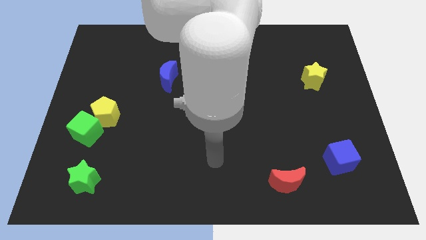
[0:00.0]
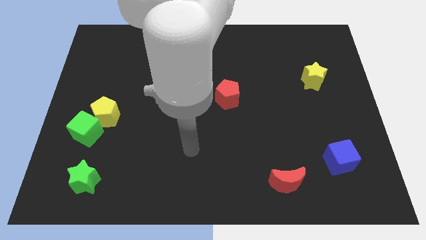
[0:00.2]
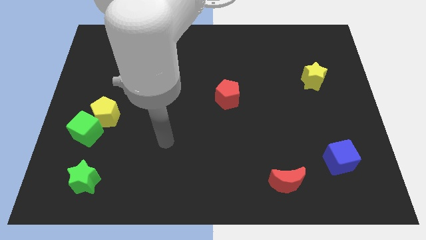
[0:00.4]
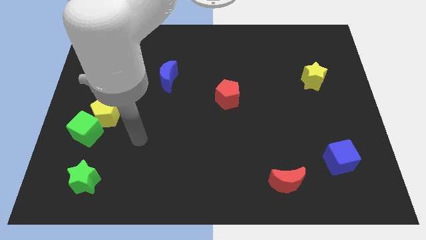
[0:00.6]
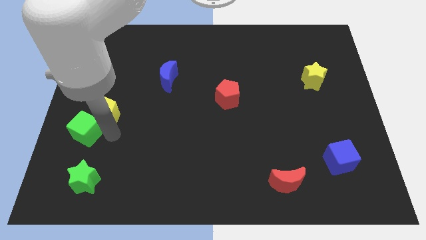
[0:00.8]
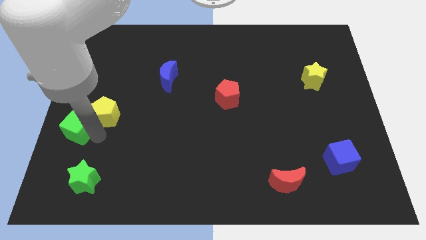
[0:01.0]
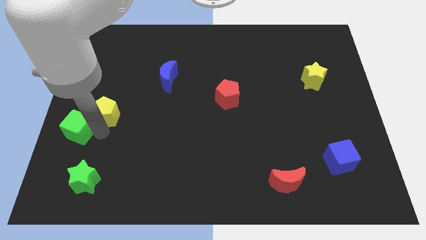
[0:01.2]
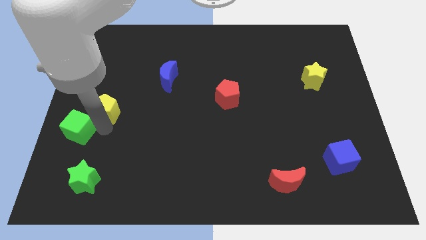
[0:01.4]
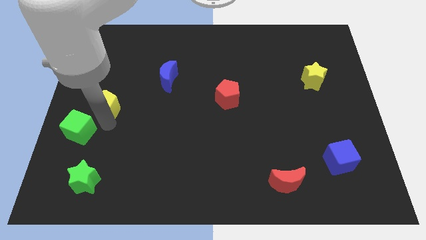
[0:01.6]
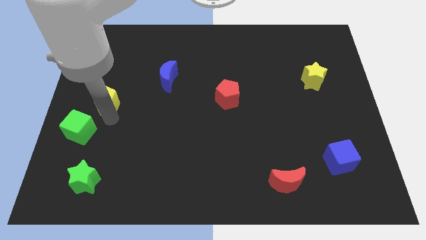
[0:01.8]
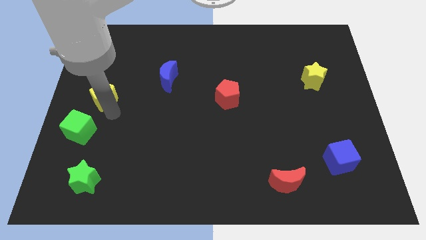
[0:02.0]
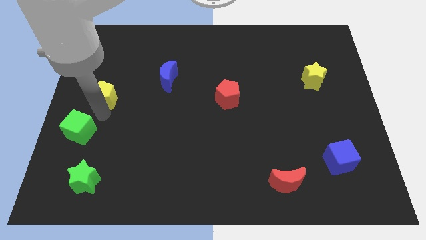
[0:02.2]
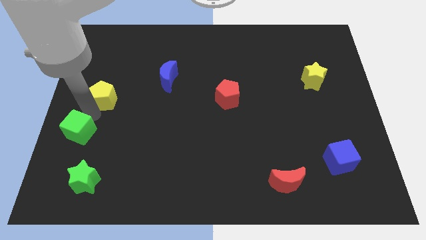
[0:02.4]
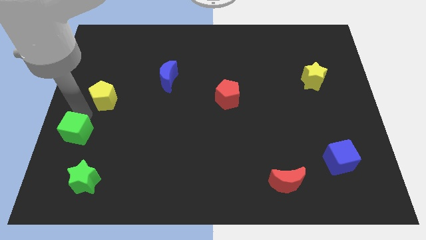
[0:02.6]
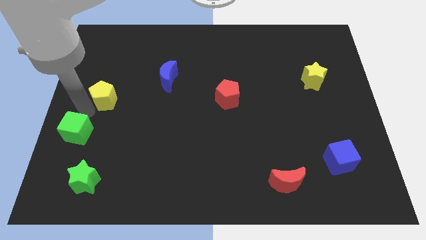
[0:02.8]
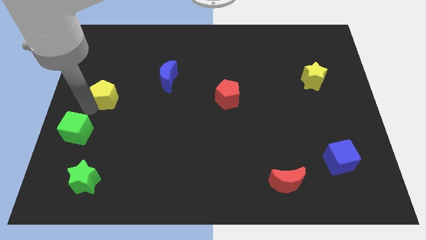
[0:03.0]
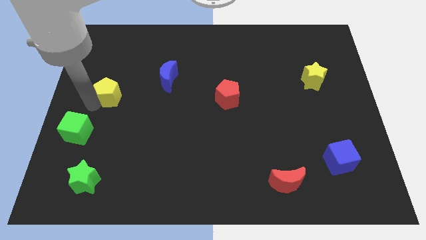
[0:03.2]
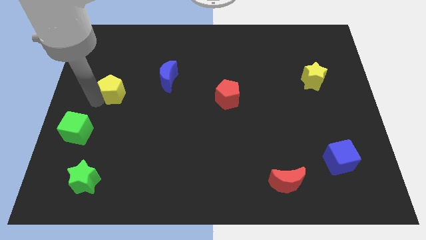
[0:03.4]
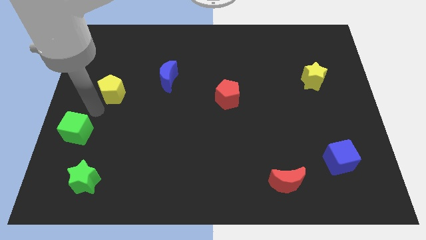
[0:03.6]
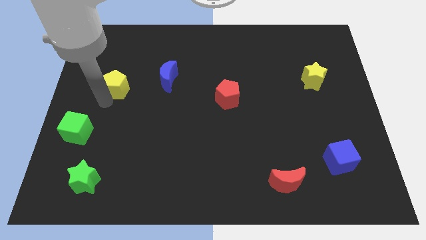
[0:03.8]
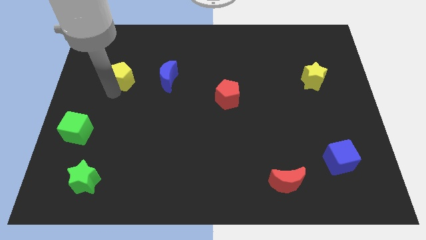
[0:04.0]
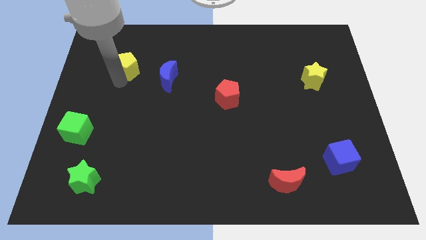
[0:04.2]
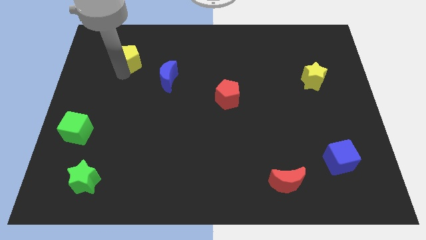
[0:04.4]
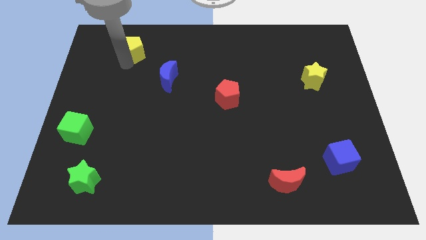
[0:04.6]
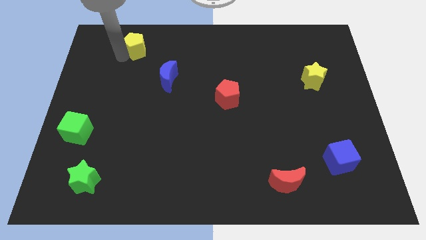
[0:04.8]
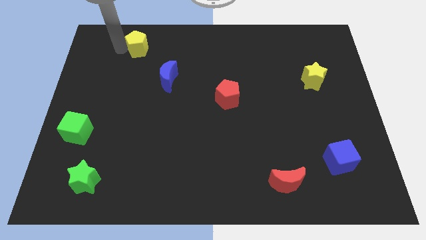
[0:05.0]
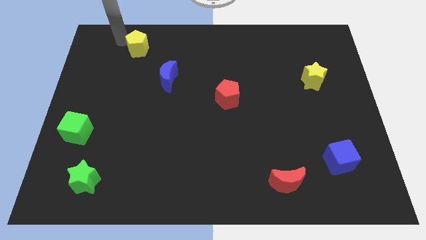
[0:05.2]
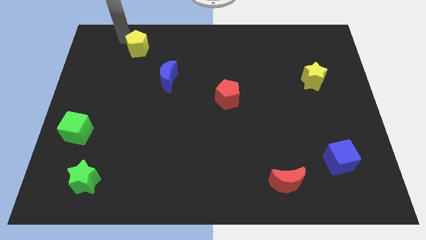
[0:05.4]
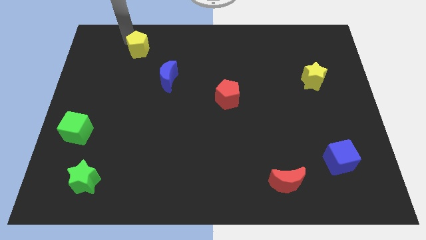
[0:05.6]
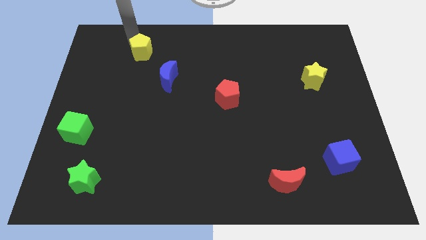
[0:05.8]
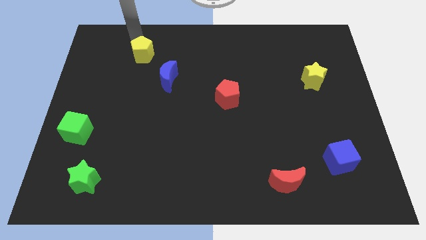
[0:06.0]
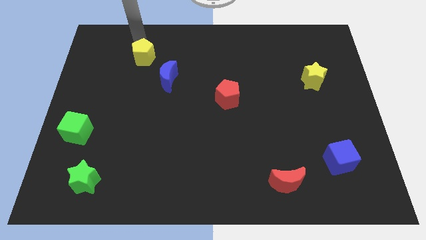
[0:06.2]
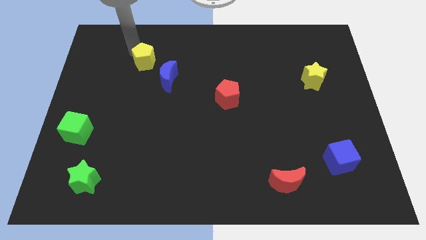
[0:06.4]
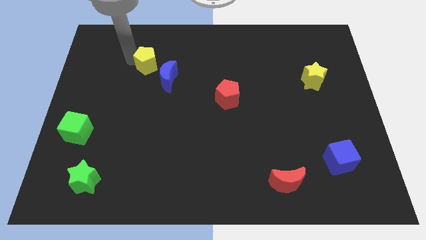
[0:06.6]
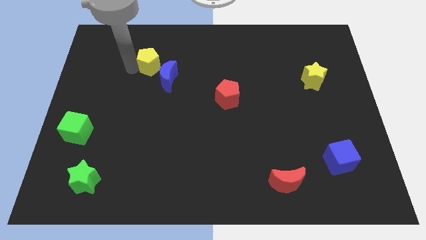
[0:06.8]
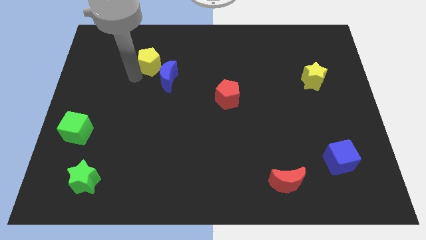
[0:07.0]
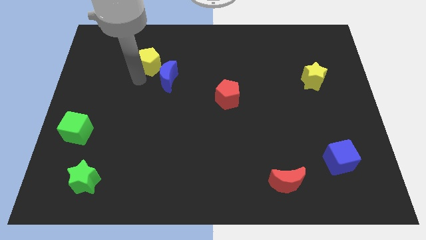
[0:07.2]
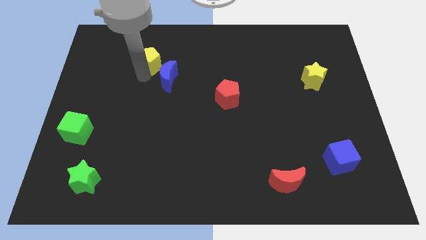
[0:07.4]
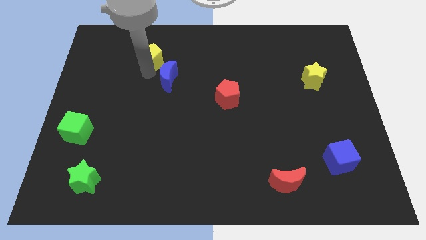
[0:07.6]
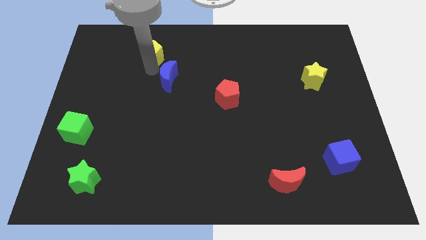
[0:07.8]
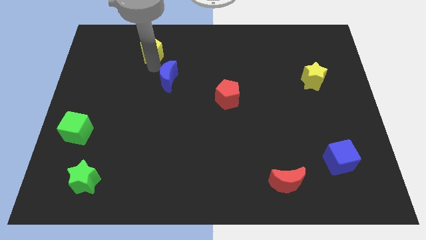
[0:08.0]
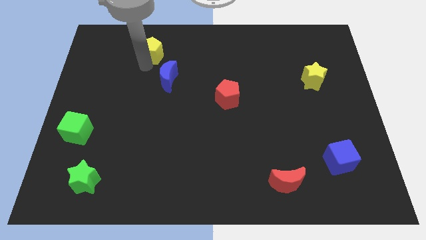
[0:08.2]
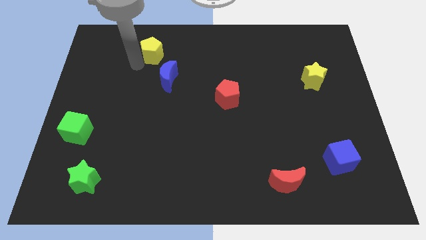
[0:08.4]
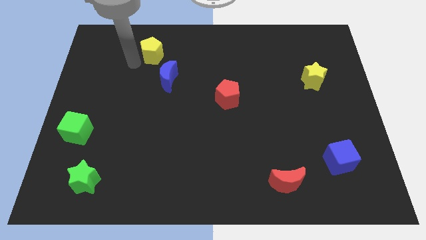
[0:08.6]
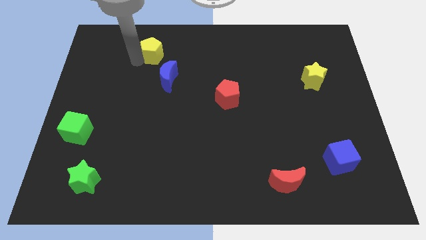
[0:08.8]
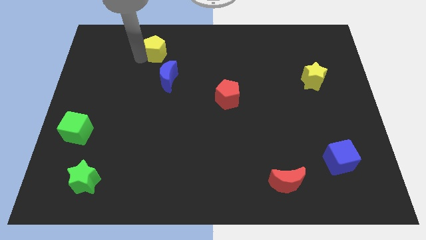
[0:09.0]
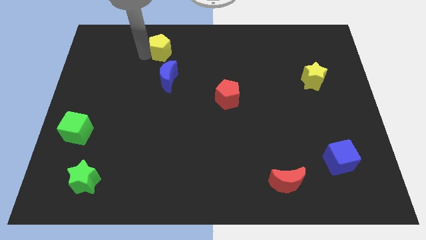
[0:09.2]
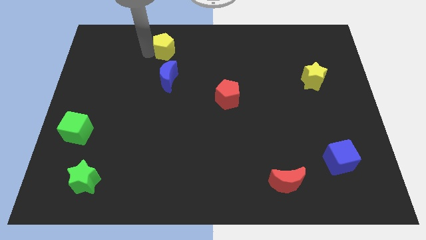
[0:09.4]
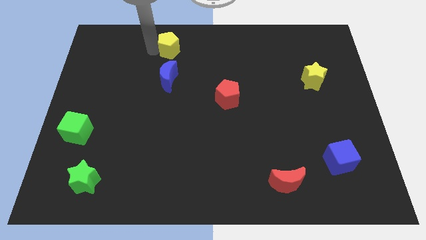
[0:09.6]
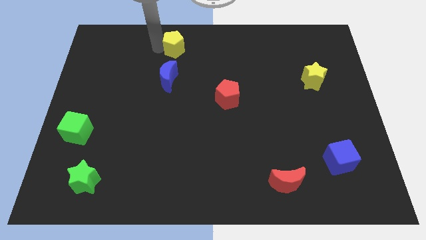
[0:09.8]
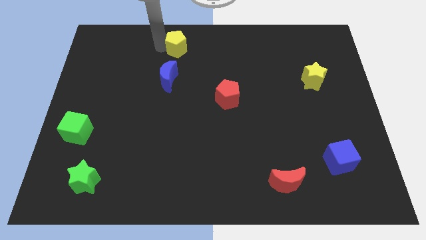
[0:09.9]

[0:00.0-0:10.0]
put the yellow pentagon to the top

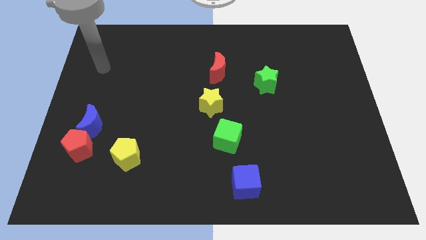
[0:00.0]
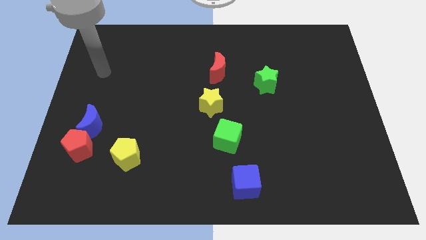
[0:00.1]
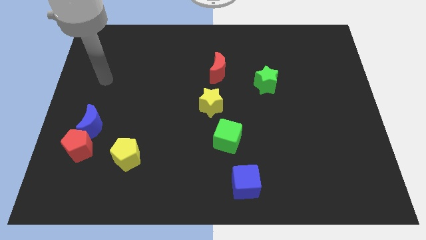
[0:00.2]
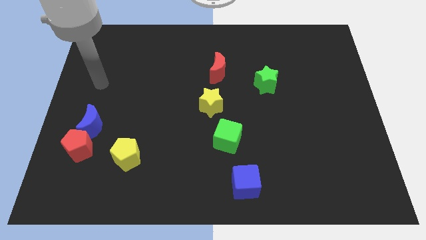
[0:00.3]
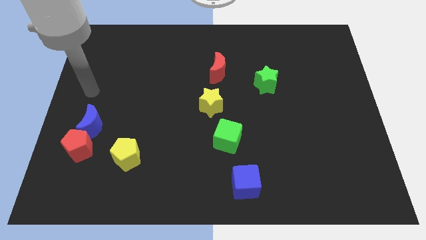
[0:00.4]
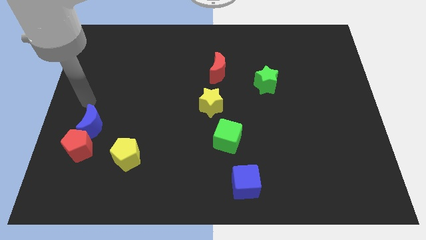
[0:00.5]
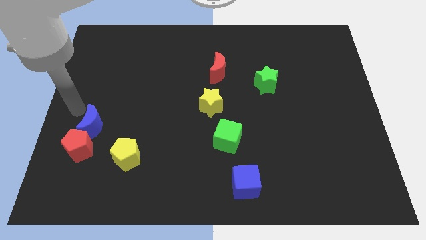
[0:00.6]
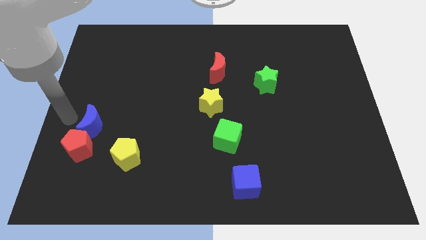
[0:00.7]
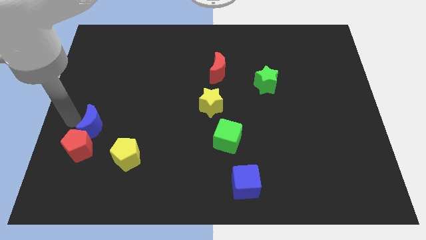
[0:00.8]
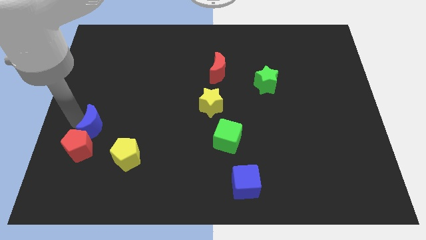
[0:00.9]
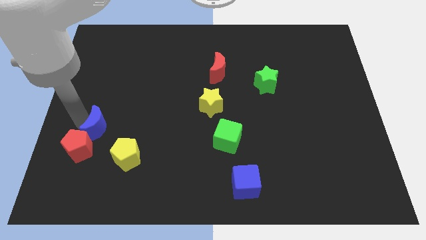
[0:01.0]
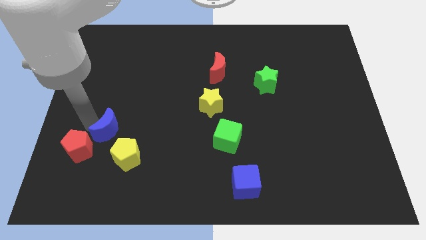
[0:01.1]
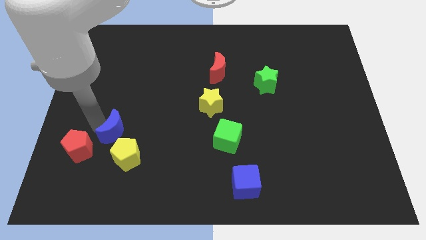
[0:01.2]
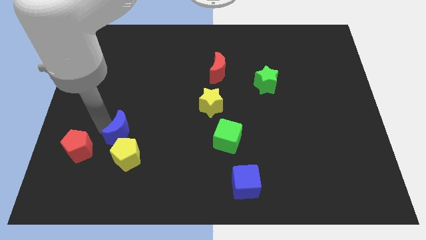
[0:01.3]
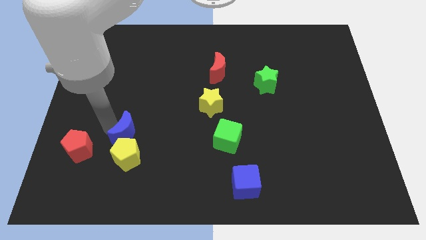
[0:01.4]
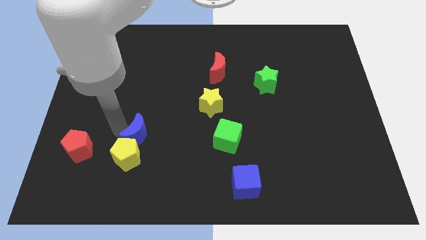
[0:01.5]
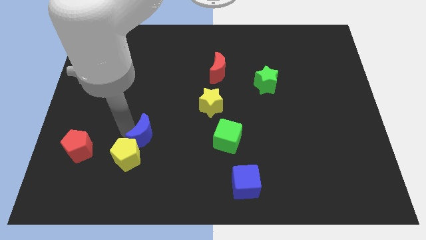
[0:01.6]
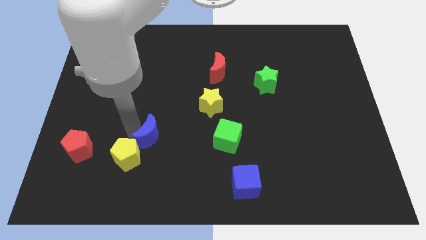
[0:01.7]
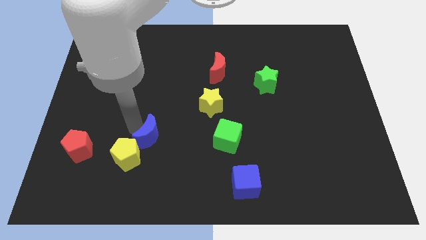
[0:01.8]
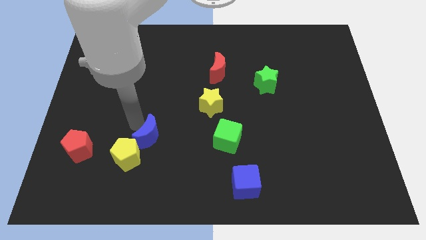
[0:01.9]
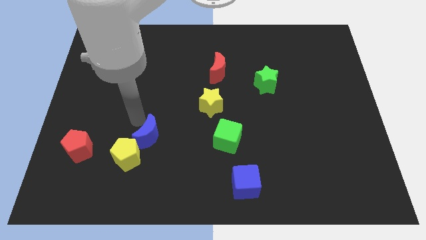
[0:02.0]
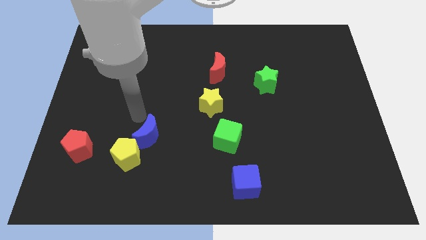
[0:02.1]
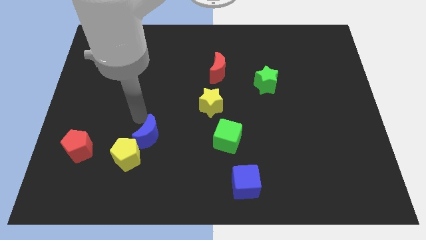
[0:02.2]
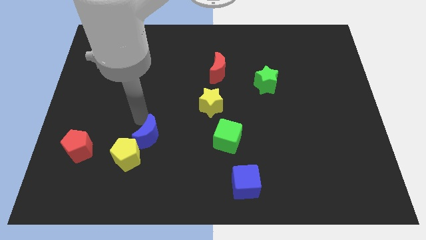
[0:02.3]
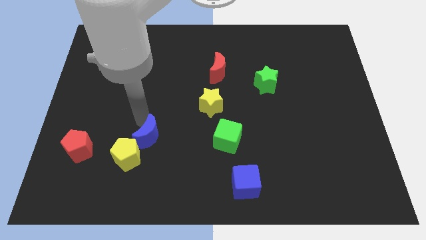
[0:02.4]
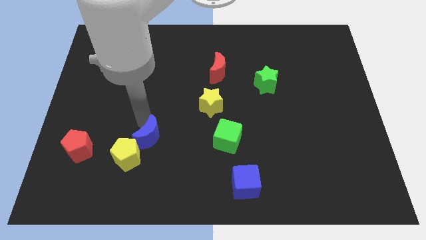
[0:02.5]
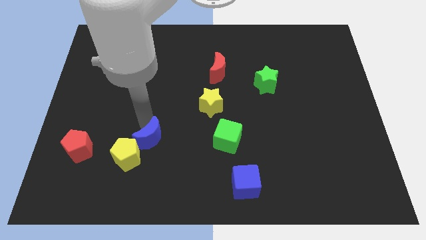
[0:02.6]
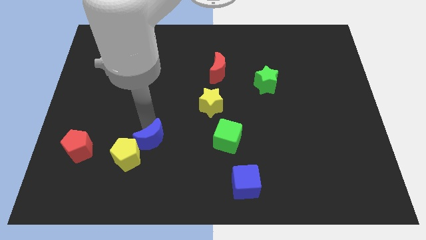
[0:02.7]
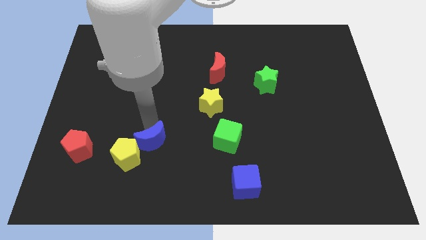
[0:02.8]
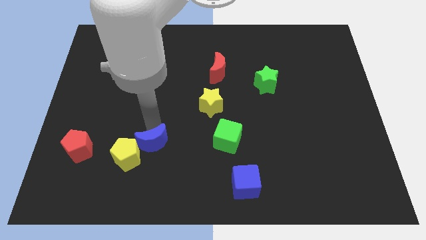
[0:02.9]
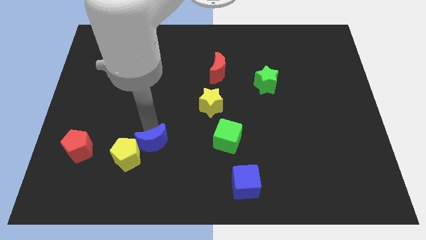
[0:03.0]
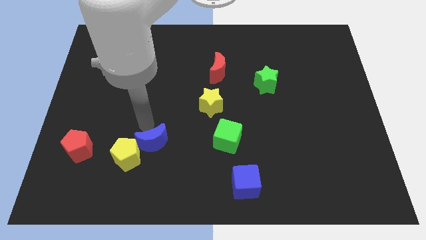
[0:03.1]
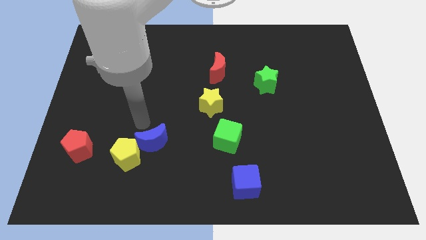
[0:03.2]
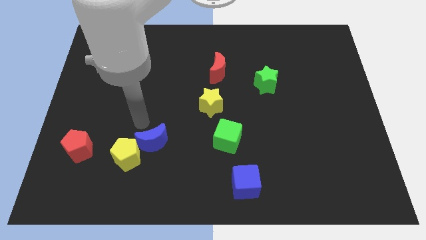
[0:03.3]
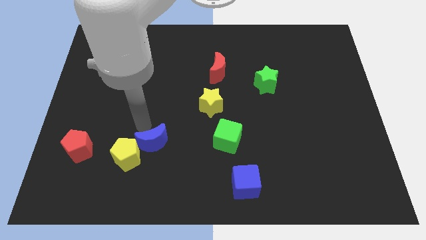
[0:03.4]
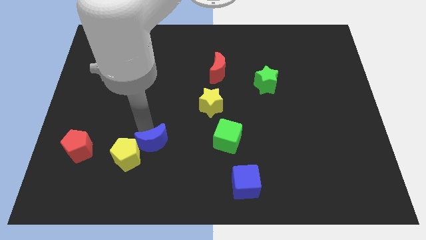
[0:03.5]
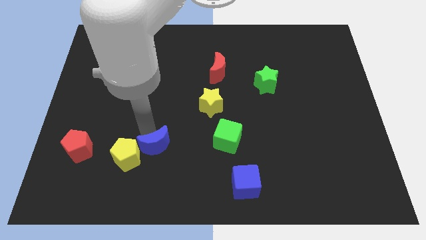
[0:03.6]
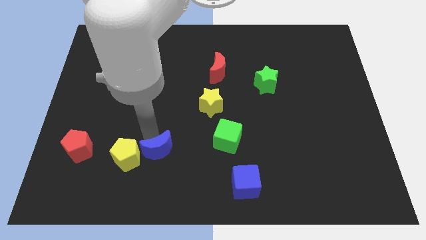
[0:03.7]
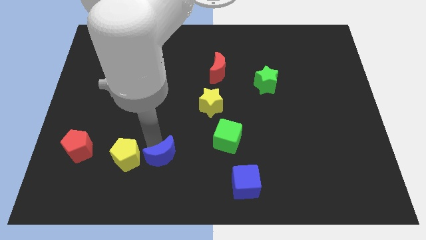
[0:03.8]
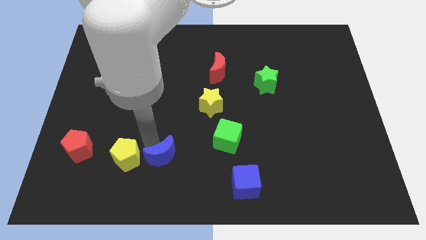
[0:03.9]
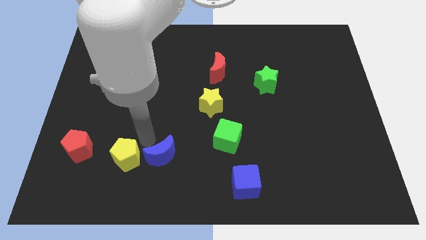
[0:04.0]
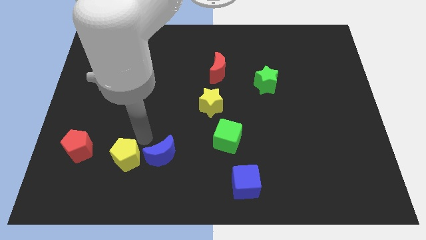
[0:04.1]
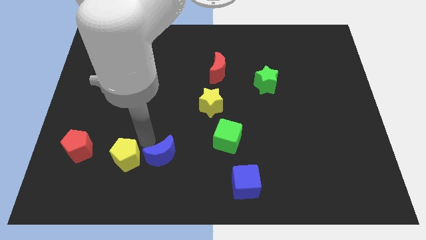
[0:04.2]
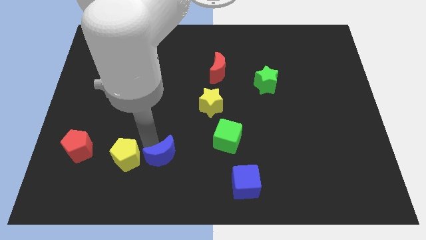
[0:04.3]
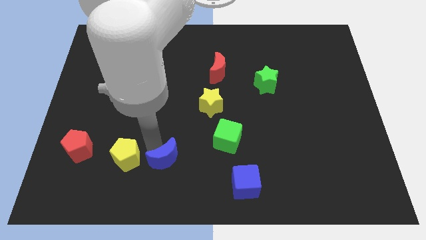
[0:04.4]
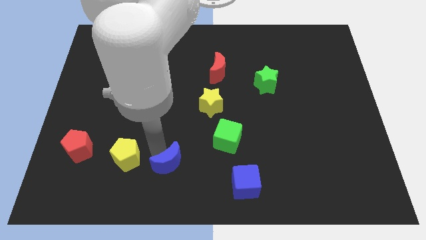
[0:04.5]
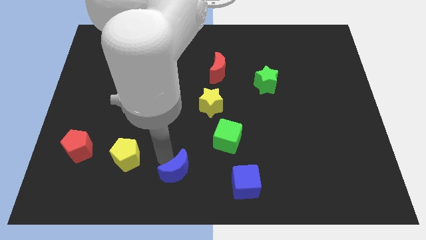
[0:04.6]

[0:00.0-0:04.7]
put the blue moon to the bottom side
